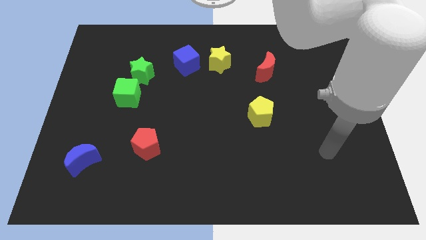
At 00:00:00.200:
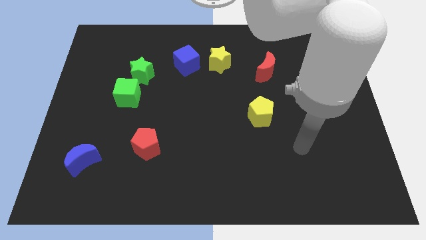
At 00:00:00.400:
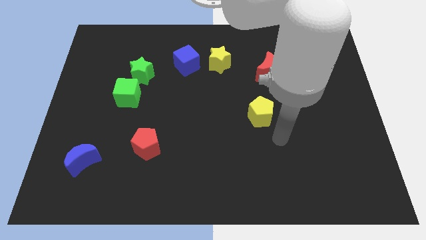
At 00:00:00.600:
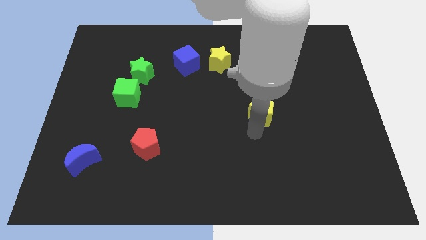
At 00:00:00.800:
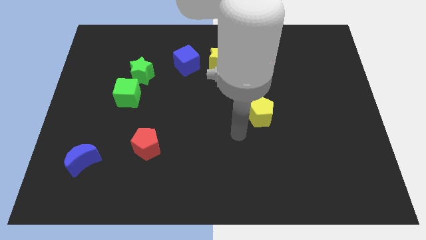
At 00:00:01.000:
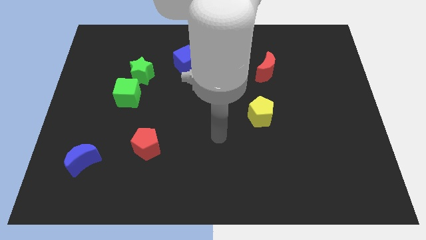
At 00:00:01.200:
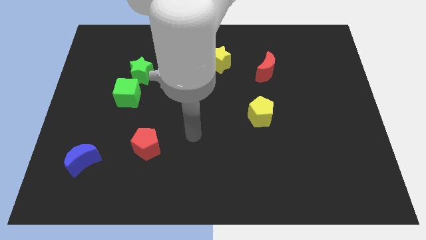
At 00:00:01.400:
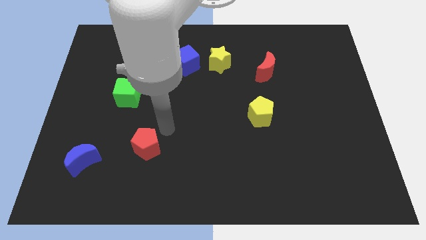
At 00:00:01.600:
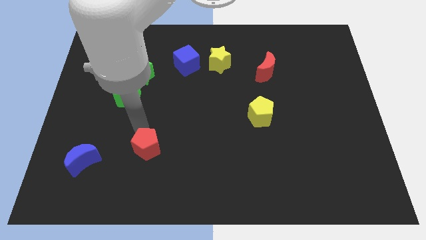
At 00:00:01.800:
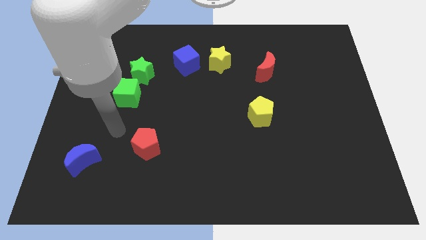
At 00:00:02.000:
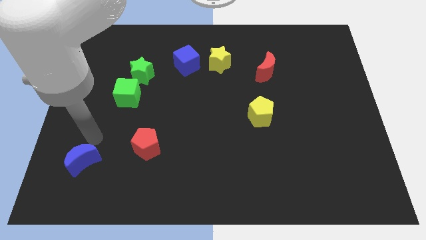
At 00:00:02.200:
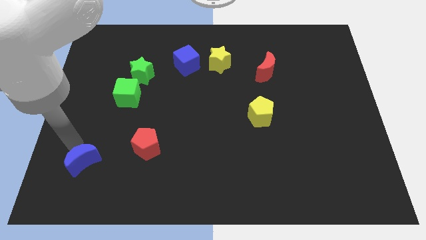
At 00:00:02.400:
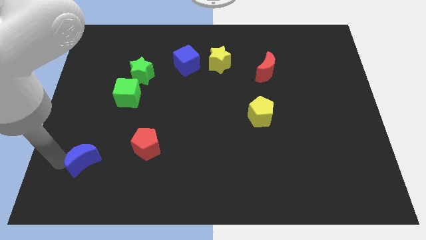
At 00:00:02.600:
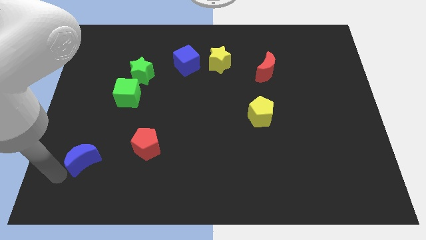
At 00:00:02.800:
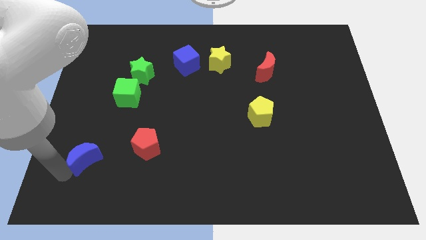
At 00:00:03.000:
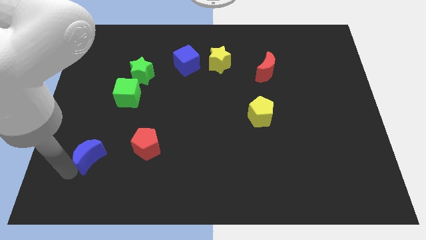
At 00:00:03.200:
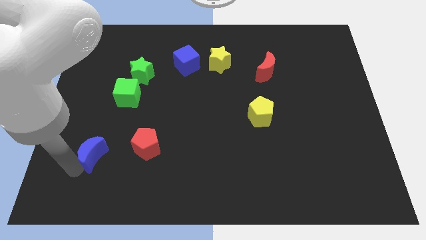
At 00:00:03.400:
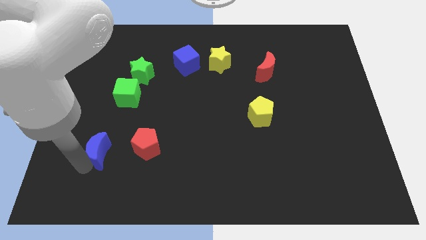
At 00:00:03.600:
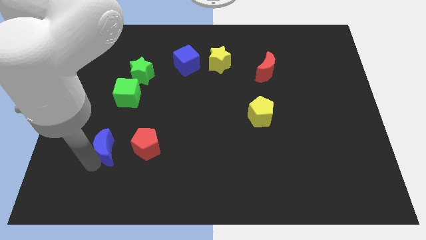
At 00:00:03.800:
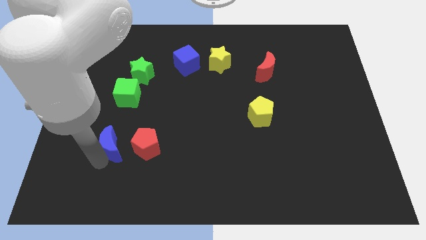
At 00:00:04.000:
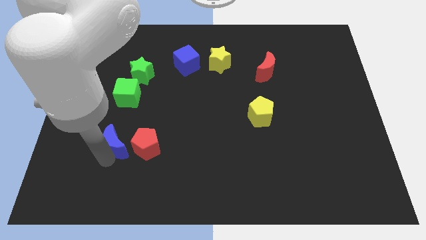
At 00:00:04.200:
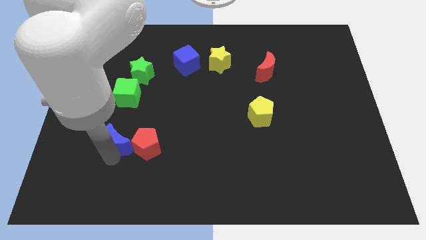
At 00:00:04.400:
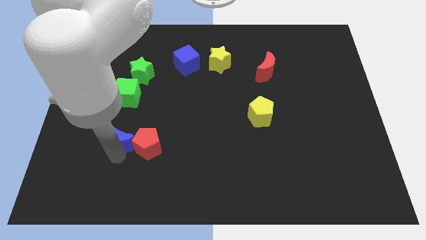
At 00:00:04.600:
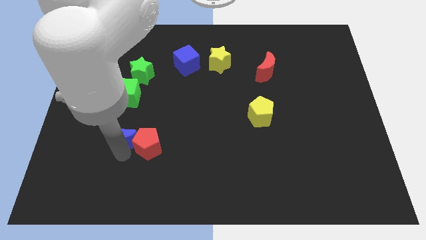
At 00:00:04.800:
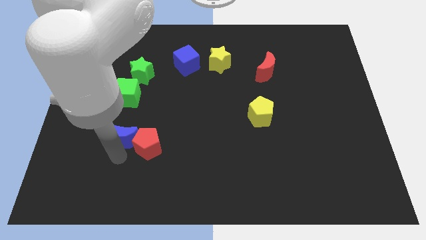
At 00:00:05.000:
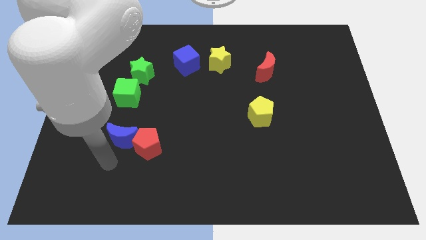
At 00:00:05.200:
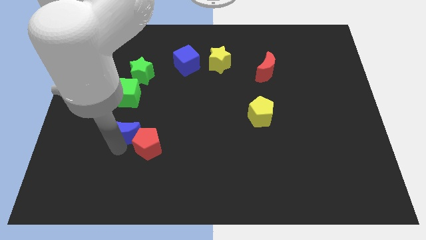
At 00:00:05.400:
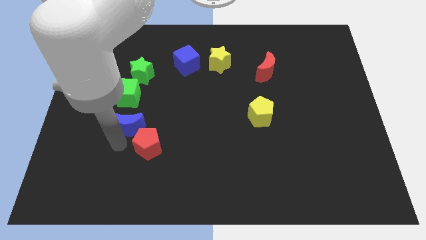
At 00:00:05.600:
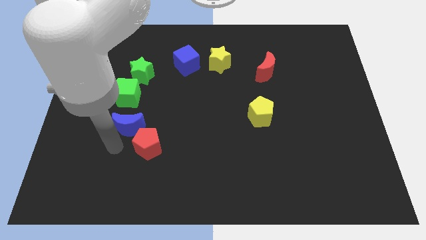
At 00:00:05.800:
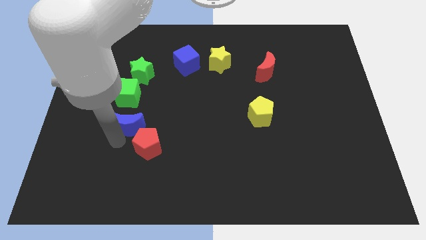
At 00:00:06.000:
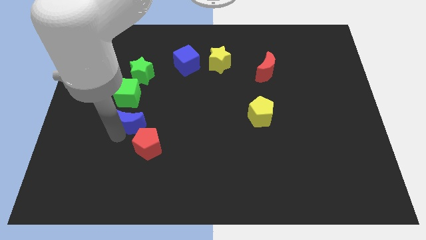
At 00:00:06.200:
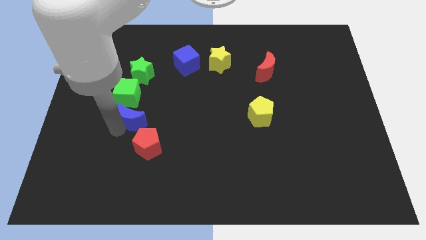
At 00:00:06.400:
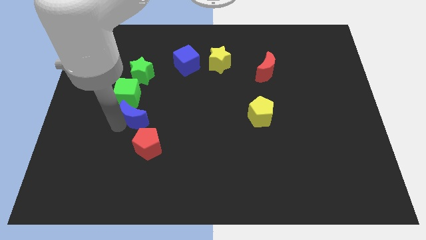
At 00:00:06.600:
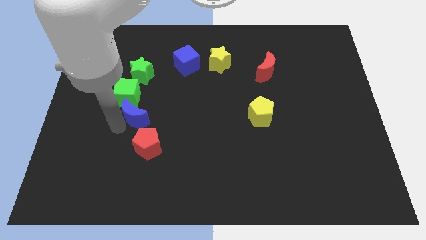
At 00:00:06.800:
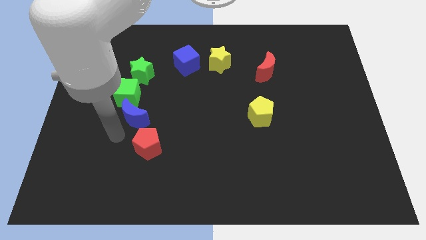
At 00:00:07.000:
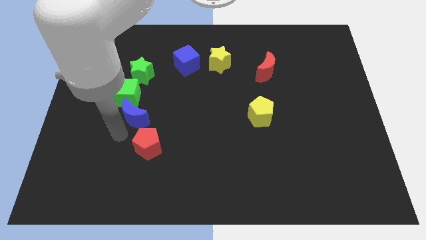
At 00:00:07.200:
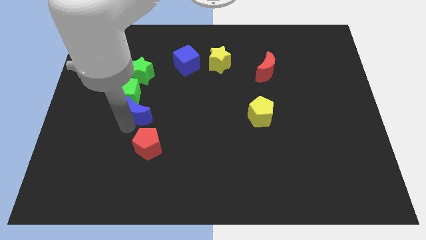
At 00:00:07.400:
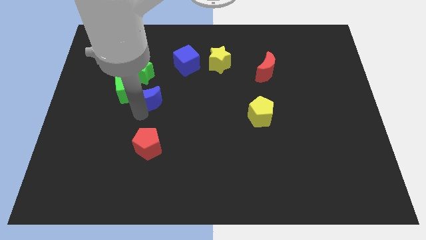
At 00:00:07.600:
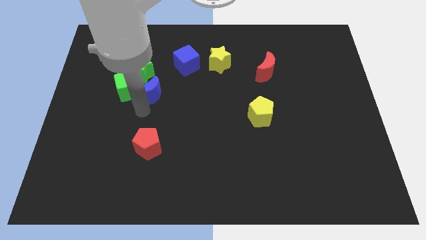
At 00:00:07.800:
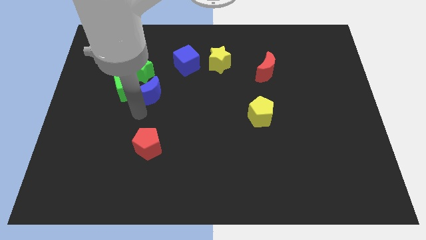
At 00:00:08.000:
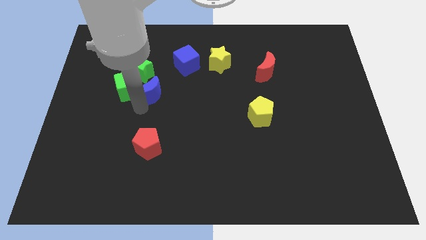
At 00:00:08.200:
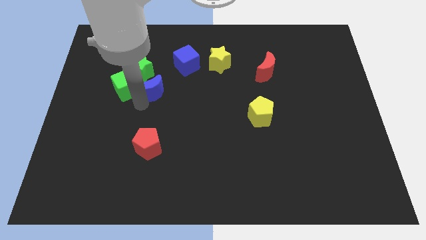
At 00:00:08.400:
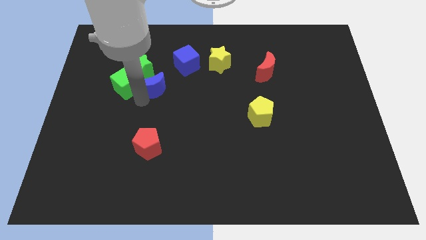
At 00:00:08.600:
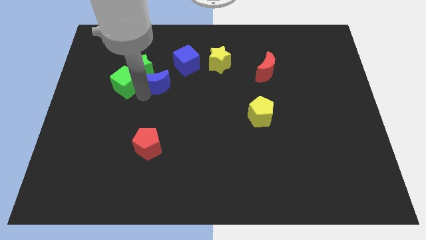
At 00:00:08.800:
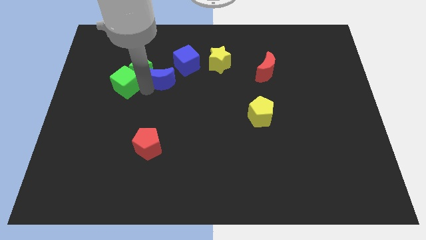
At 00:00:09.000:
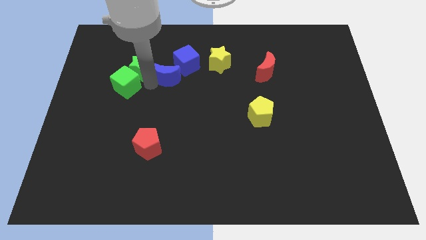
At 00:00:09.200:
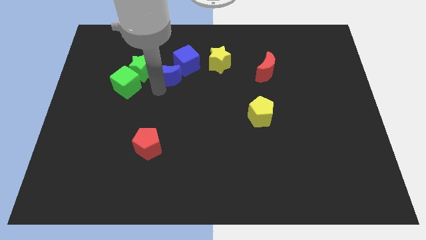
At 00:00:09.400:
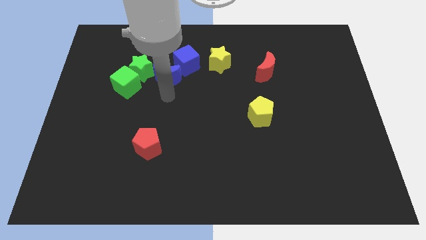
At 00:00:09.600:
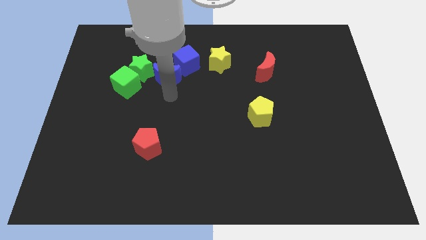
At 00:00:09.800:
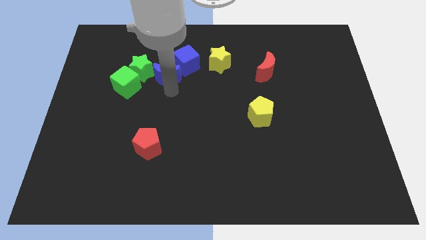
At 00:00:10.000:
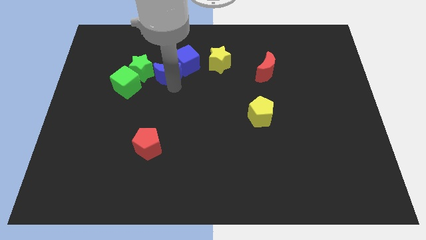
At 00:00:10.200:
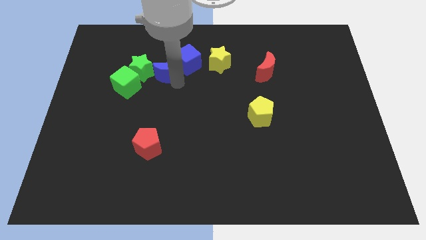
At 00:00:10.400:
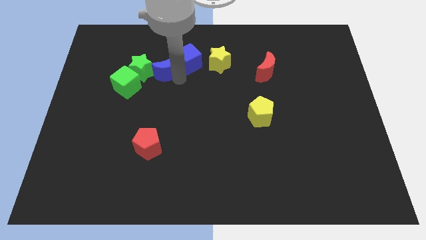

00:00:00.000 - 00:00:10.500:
put the blue moon to the top right of the green star
